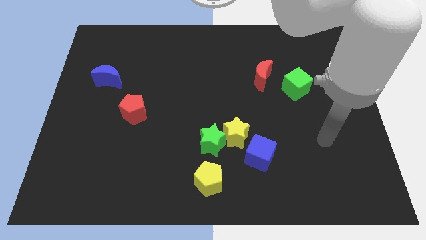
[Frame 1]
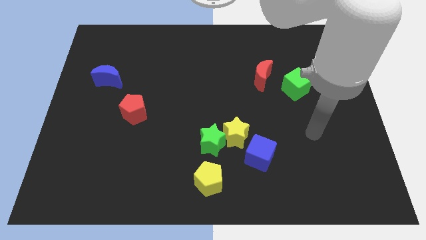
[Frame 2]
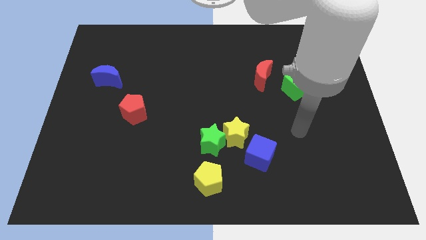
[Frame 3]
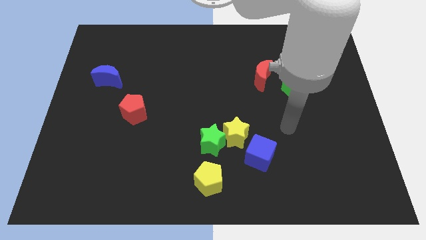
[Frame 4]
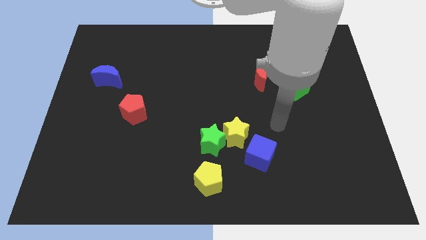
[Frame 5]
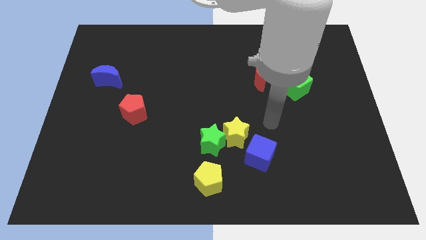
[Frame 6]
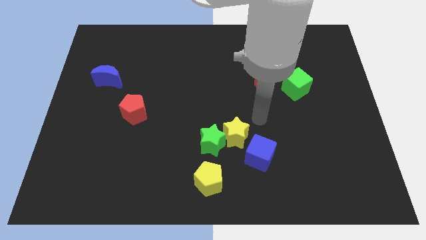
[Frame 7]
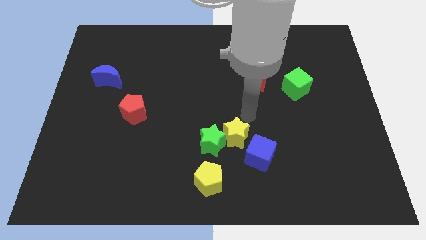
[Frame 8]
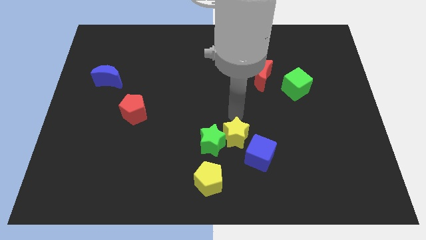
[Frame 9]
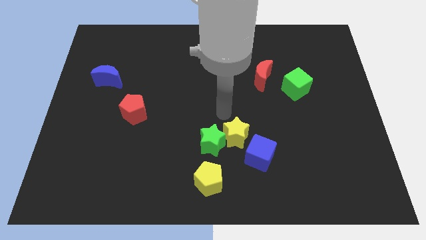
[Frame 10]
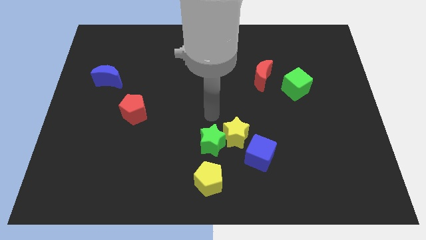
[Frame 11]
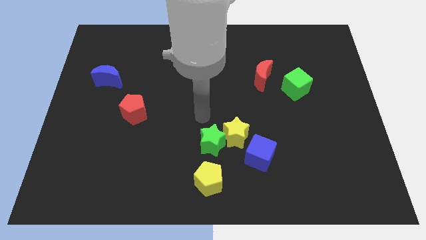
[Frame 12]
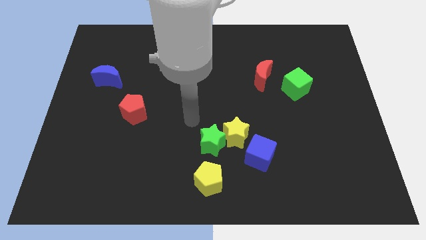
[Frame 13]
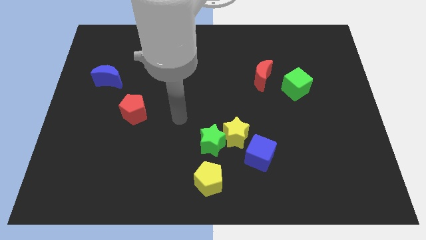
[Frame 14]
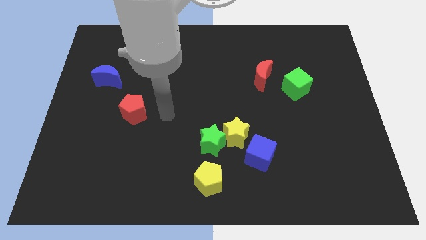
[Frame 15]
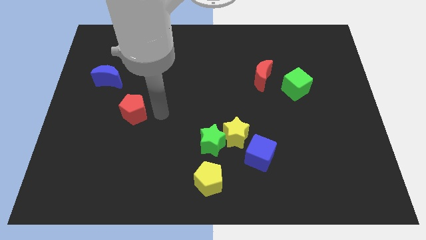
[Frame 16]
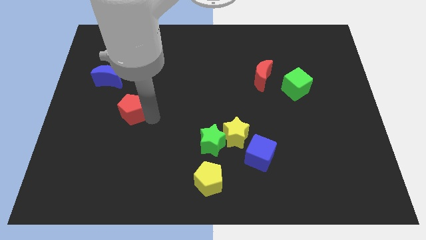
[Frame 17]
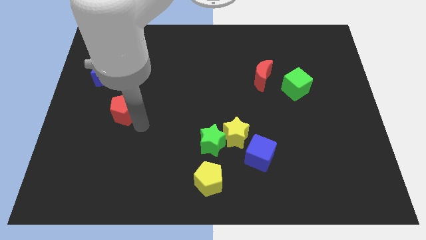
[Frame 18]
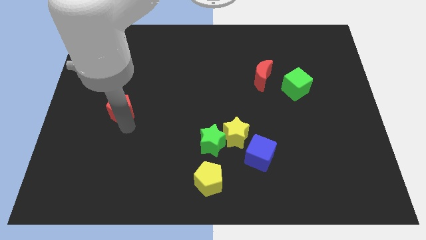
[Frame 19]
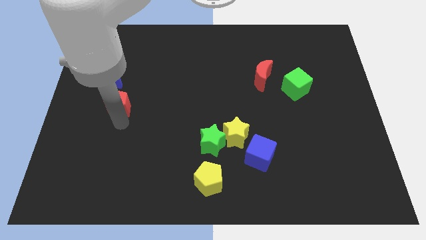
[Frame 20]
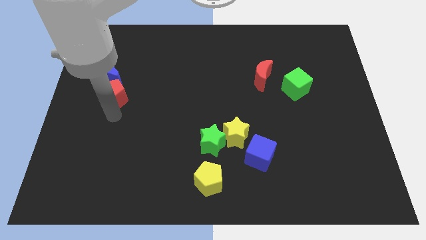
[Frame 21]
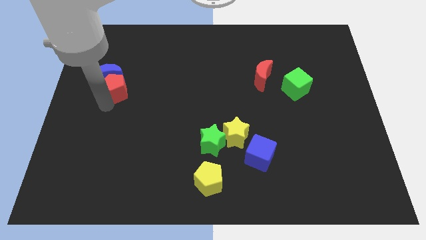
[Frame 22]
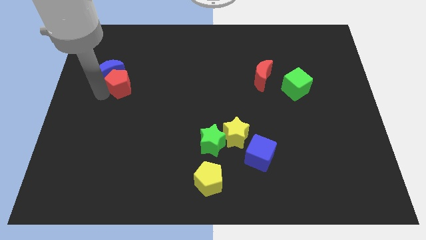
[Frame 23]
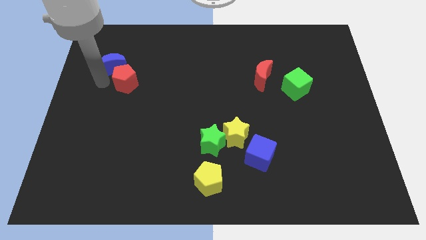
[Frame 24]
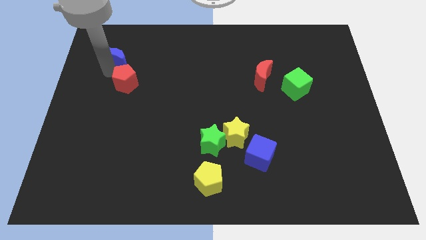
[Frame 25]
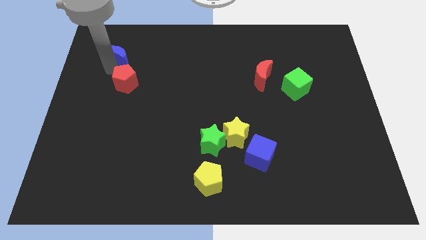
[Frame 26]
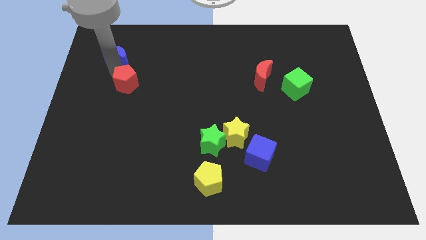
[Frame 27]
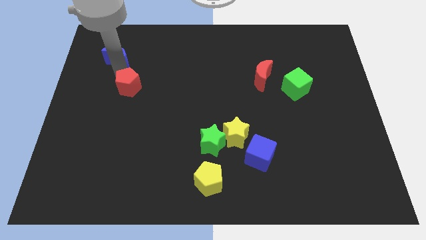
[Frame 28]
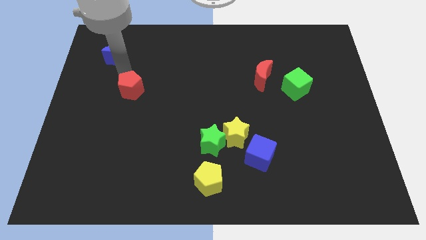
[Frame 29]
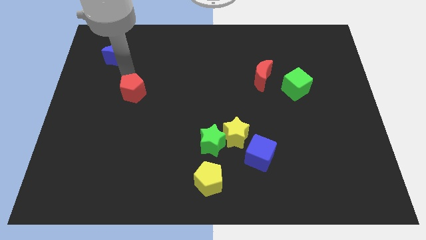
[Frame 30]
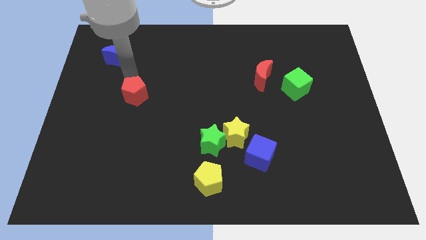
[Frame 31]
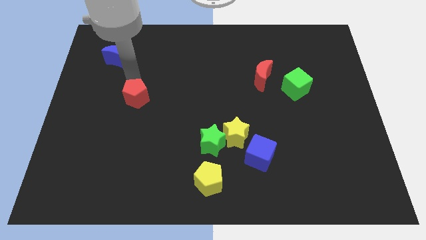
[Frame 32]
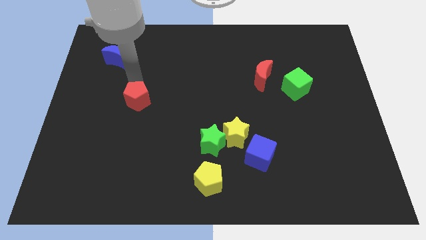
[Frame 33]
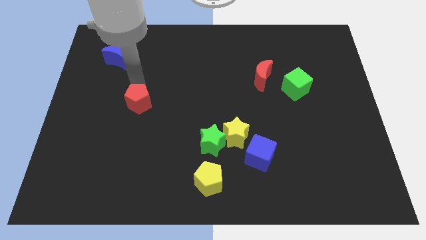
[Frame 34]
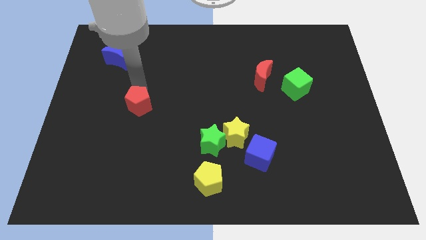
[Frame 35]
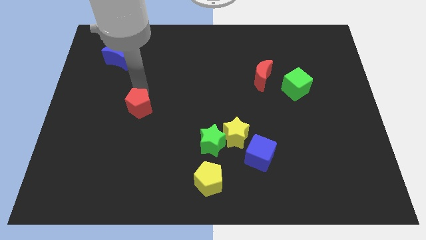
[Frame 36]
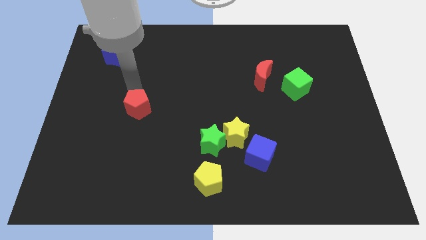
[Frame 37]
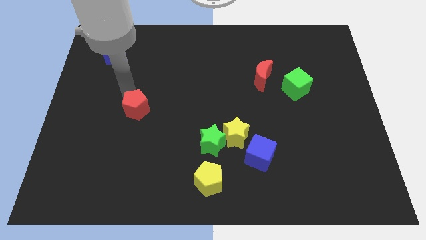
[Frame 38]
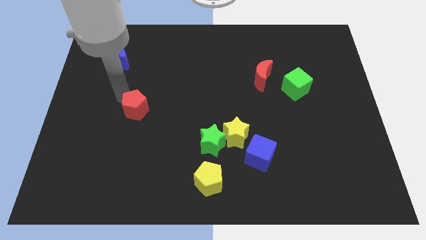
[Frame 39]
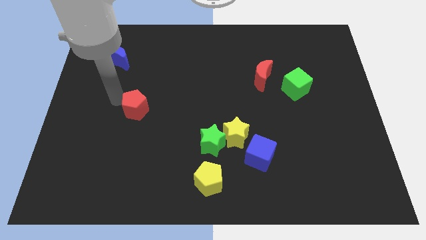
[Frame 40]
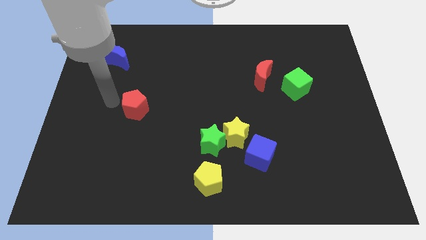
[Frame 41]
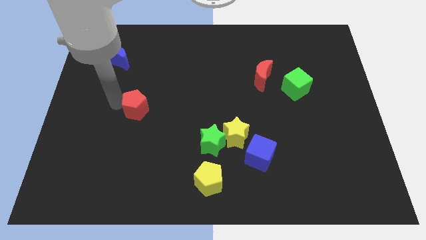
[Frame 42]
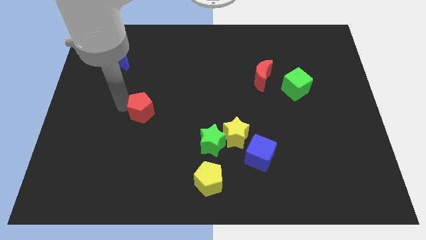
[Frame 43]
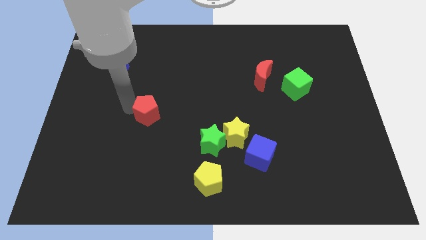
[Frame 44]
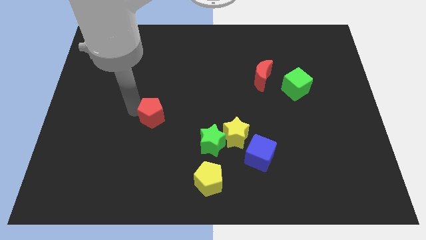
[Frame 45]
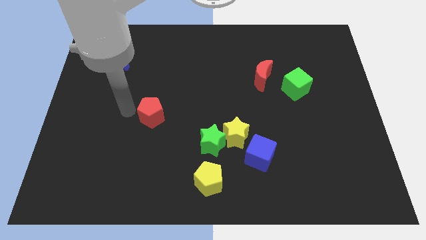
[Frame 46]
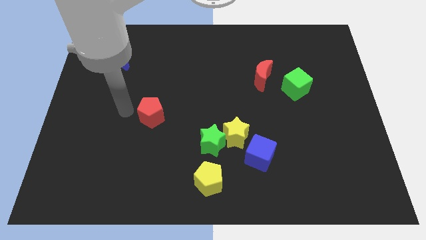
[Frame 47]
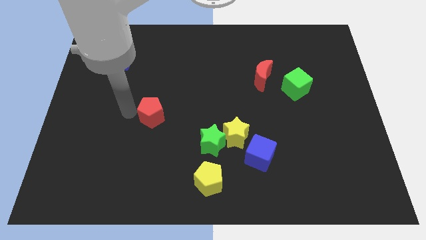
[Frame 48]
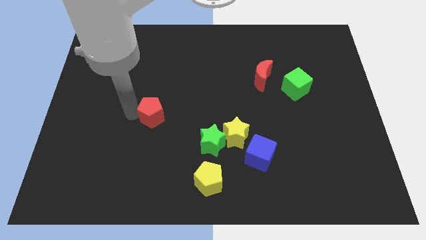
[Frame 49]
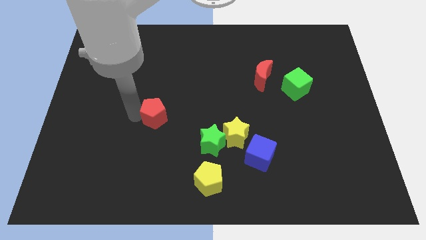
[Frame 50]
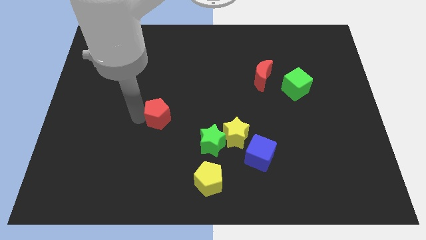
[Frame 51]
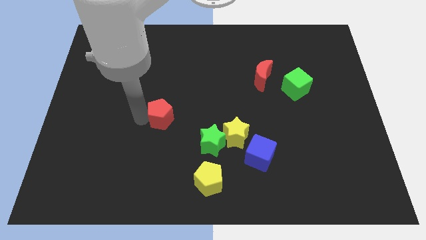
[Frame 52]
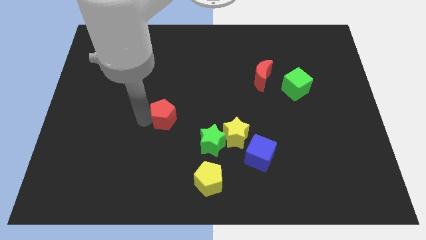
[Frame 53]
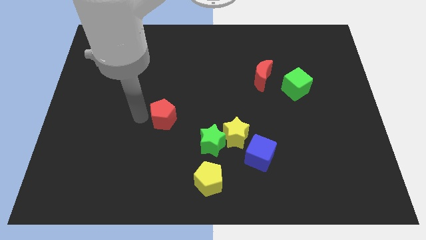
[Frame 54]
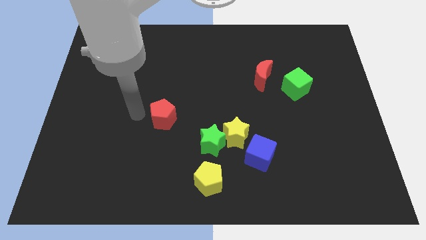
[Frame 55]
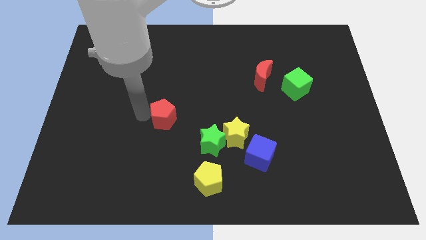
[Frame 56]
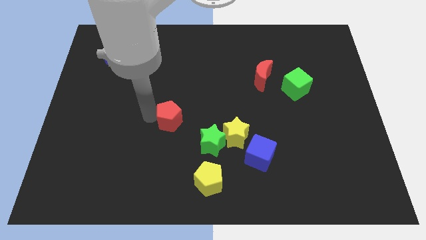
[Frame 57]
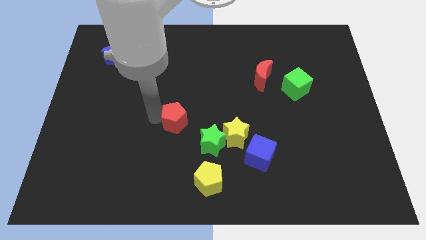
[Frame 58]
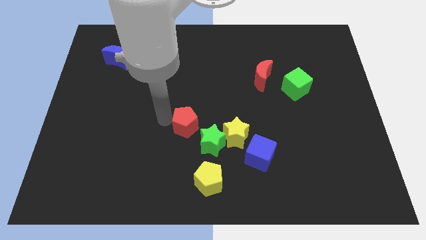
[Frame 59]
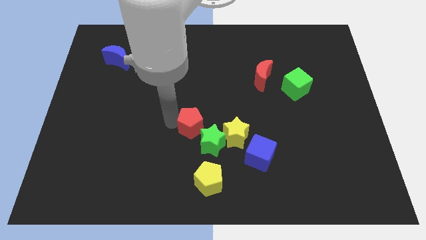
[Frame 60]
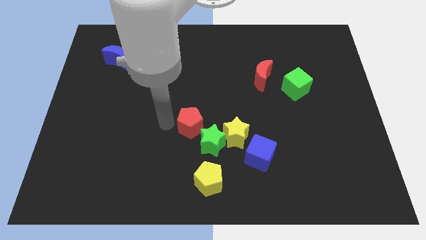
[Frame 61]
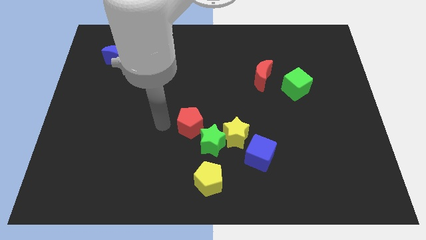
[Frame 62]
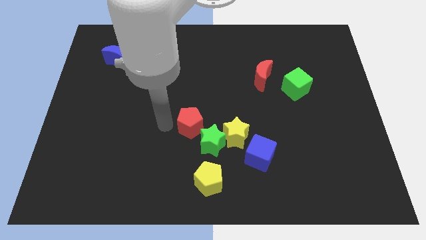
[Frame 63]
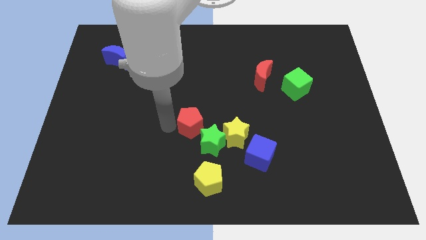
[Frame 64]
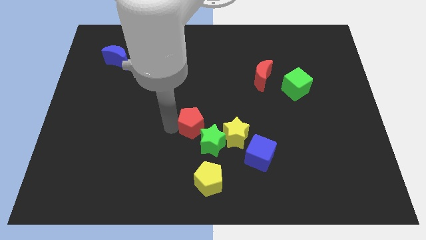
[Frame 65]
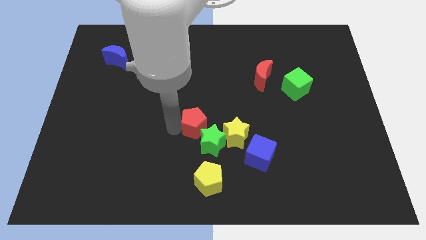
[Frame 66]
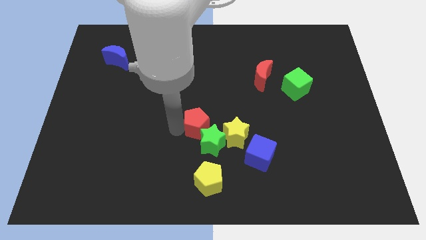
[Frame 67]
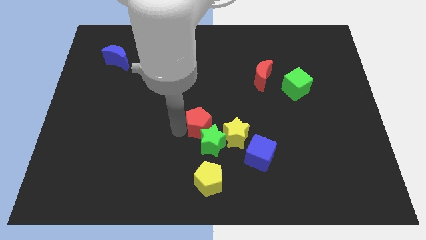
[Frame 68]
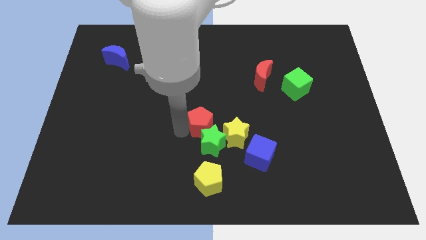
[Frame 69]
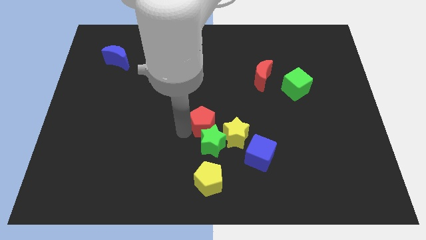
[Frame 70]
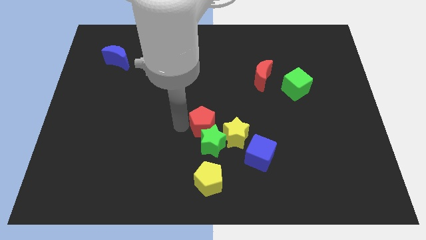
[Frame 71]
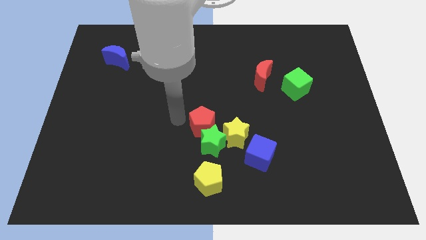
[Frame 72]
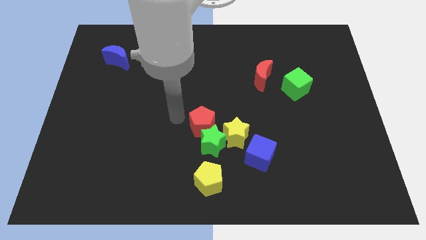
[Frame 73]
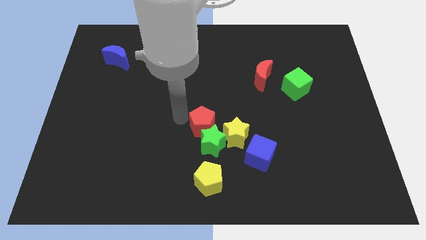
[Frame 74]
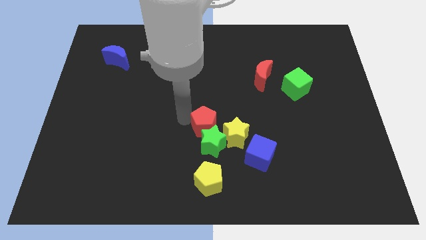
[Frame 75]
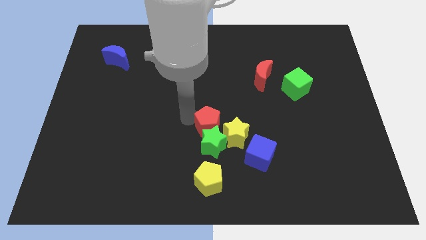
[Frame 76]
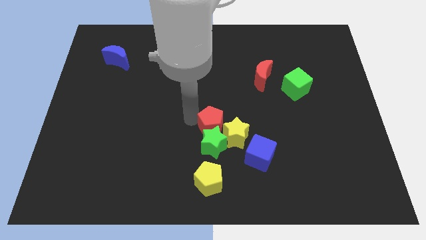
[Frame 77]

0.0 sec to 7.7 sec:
put the red pentagon to the yellow star
